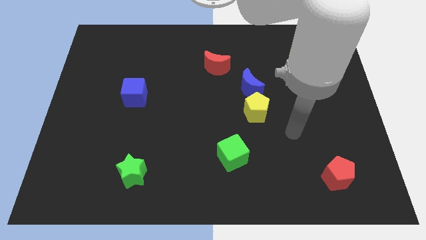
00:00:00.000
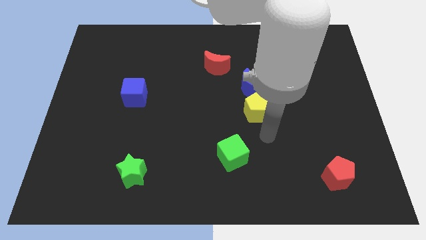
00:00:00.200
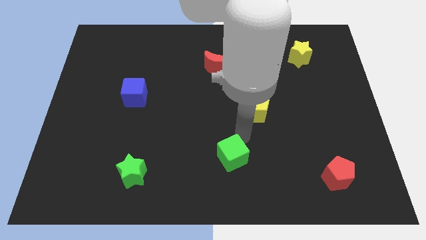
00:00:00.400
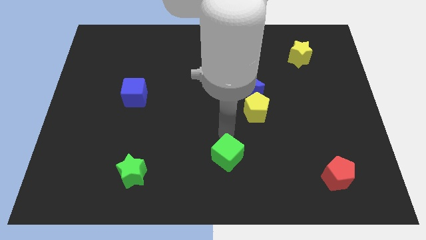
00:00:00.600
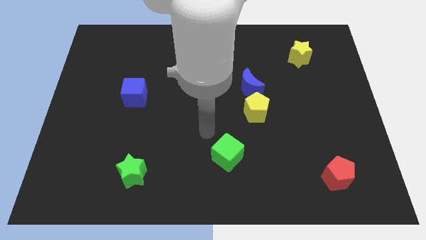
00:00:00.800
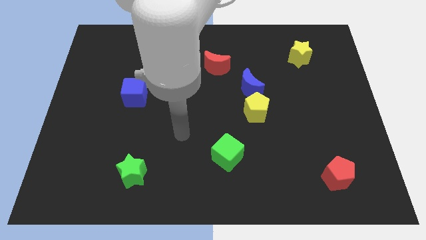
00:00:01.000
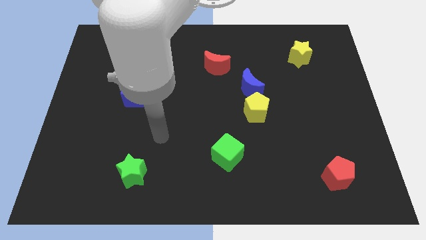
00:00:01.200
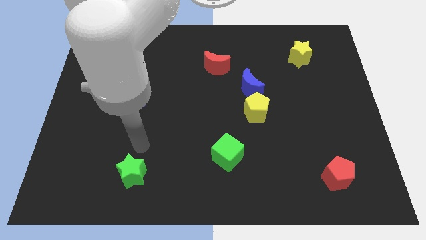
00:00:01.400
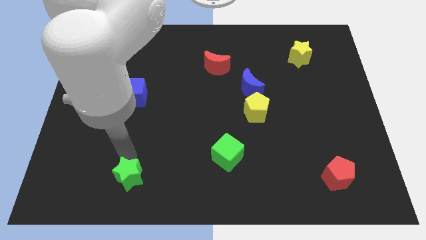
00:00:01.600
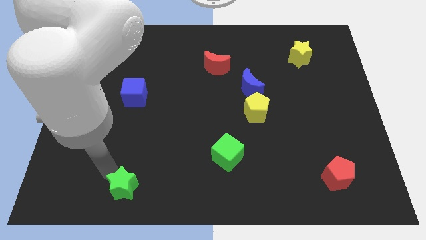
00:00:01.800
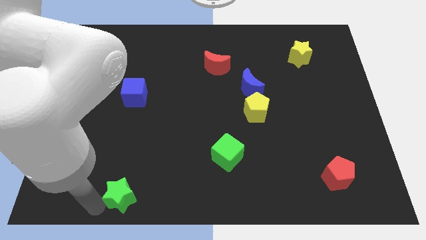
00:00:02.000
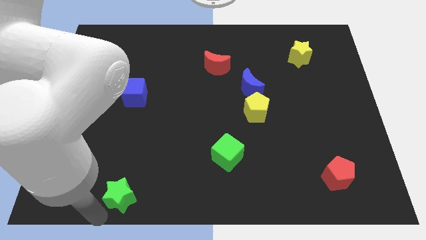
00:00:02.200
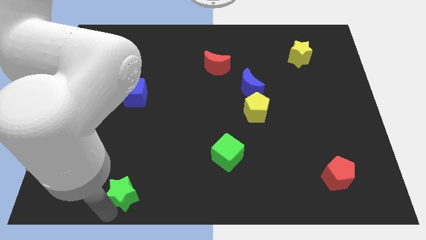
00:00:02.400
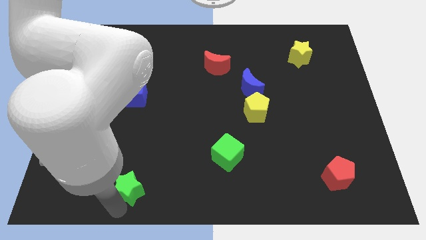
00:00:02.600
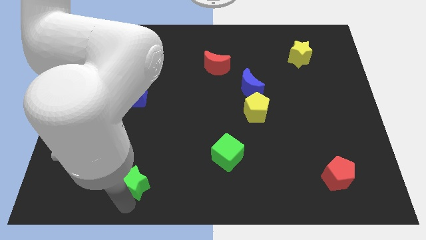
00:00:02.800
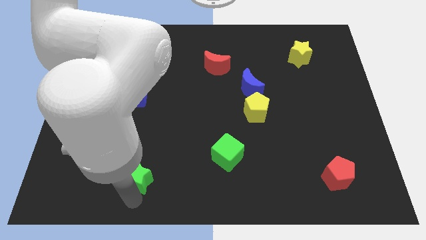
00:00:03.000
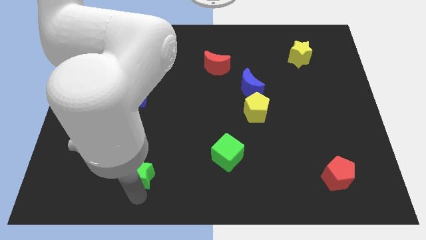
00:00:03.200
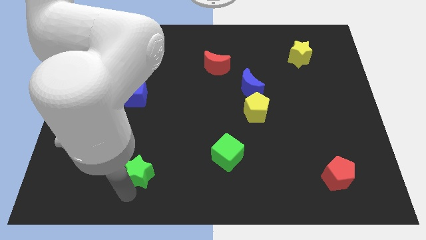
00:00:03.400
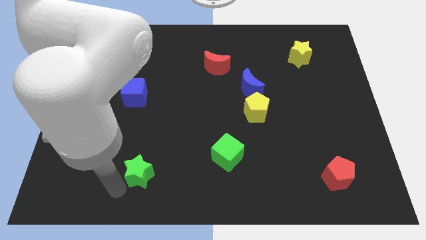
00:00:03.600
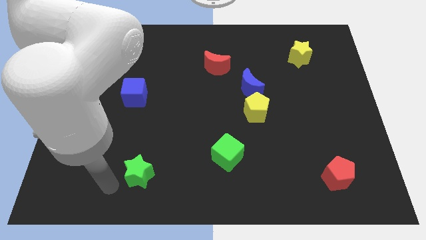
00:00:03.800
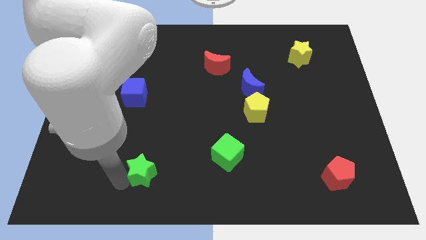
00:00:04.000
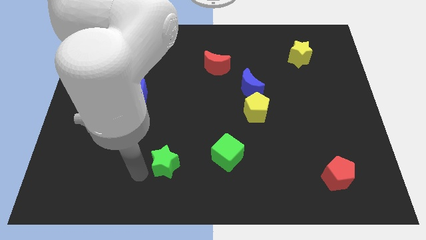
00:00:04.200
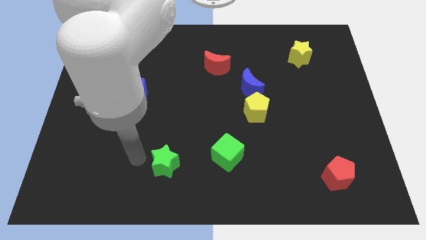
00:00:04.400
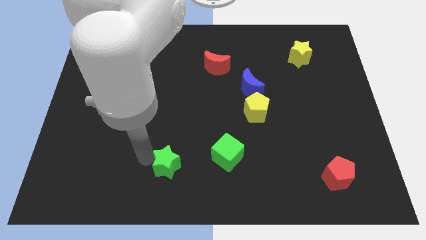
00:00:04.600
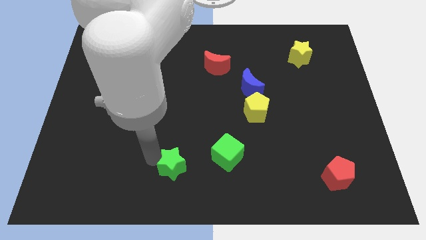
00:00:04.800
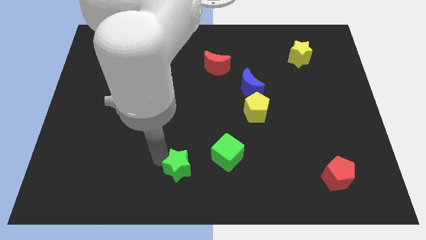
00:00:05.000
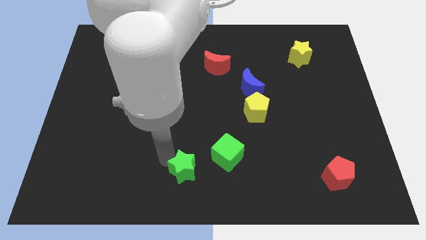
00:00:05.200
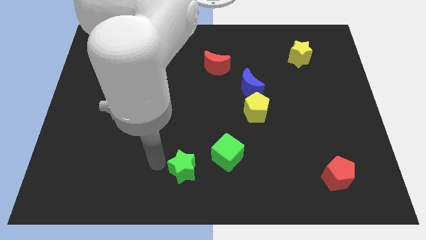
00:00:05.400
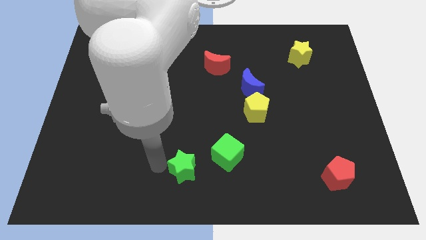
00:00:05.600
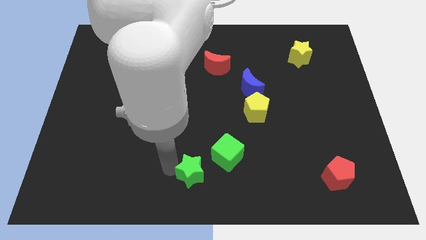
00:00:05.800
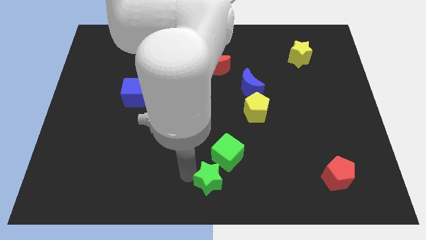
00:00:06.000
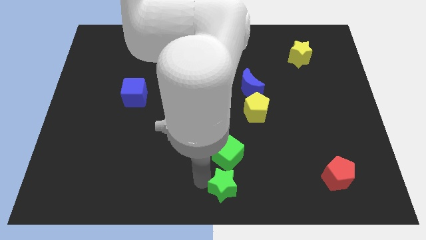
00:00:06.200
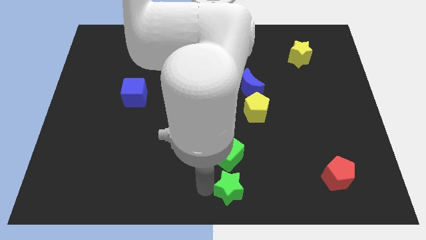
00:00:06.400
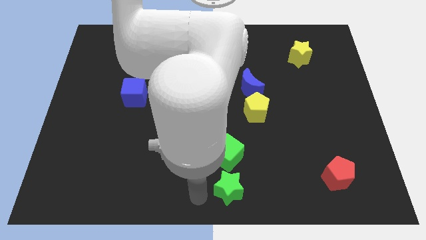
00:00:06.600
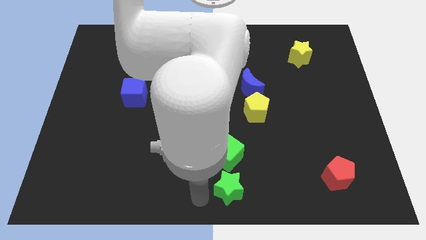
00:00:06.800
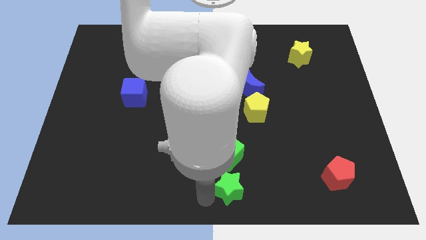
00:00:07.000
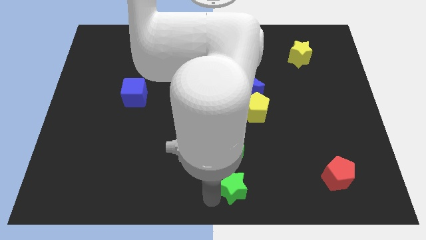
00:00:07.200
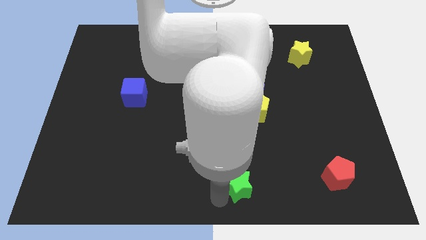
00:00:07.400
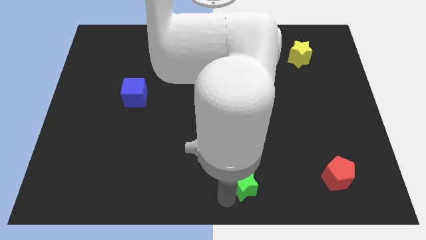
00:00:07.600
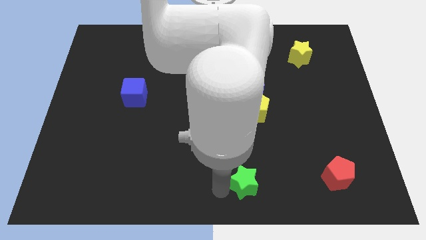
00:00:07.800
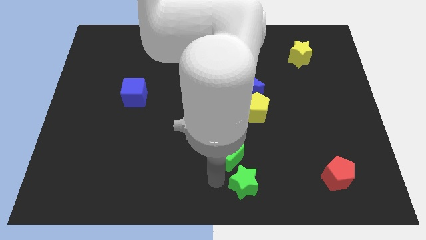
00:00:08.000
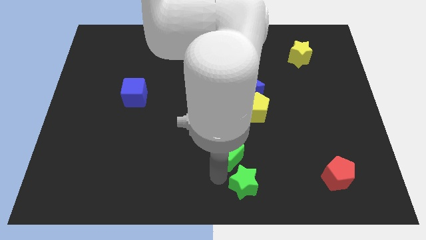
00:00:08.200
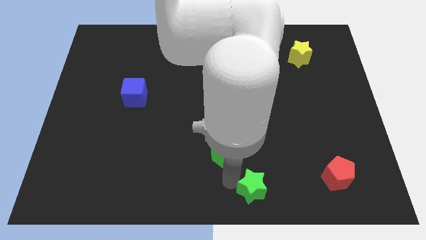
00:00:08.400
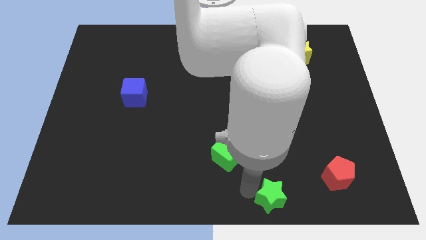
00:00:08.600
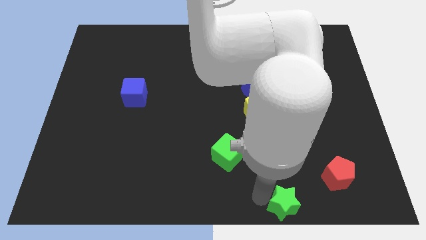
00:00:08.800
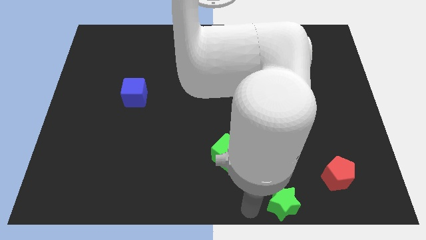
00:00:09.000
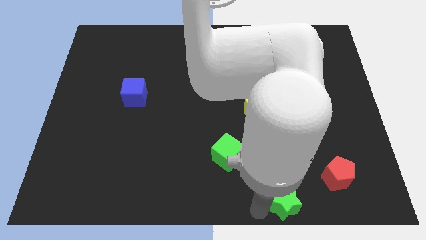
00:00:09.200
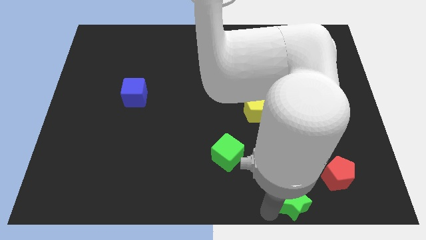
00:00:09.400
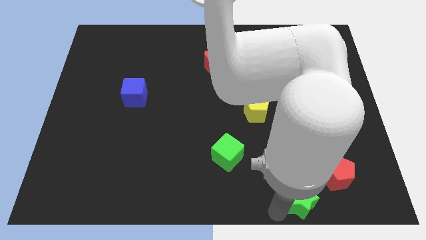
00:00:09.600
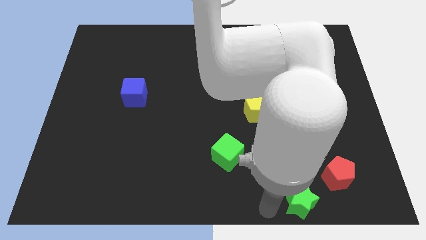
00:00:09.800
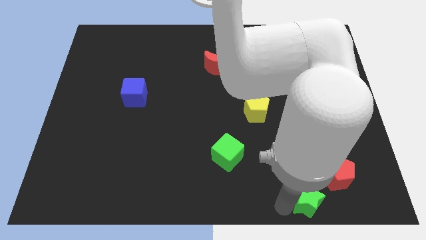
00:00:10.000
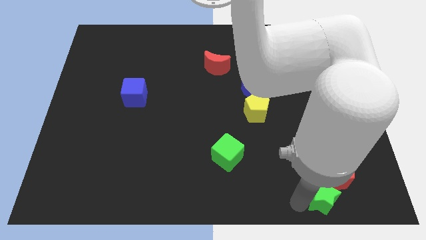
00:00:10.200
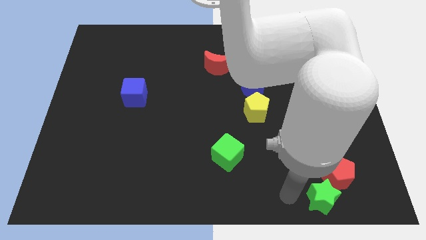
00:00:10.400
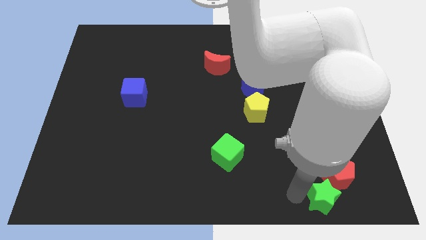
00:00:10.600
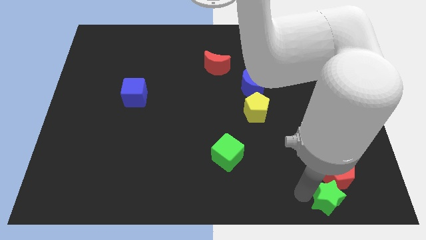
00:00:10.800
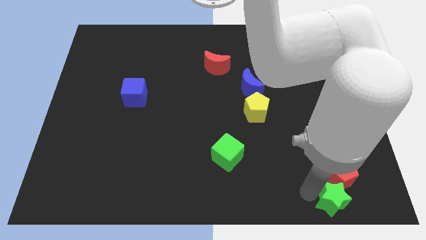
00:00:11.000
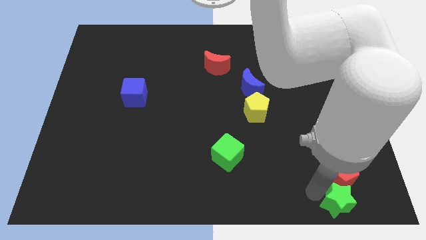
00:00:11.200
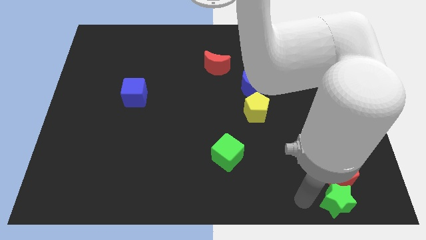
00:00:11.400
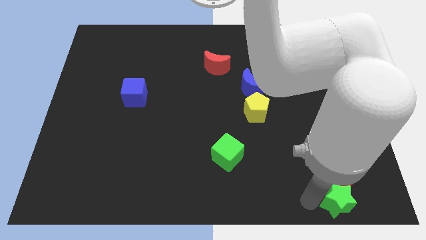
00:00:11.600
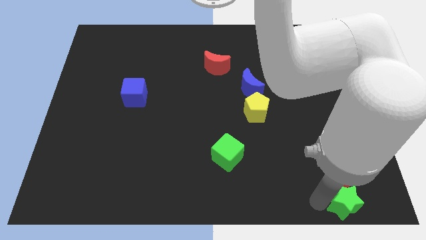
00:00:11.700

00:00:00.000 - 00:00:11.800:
put the green star to the lower right corner
